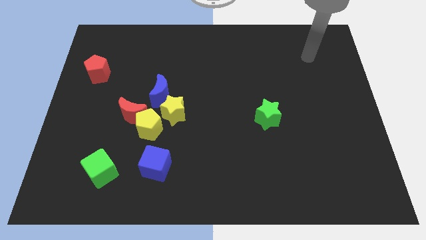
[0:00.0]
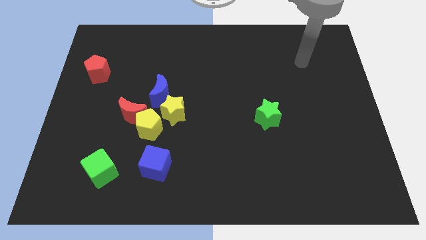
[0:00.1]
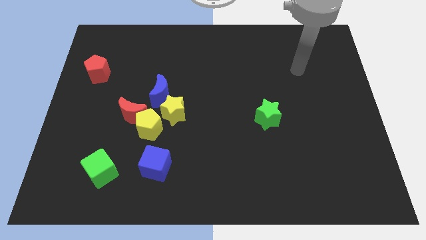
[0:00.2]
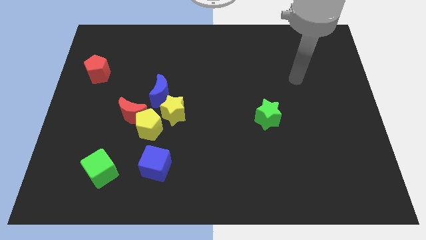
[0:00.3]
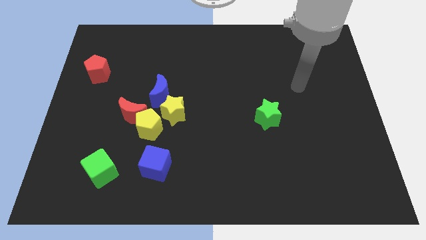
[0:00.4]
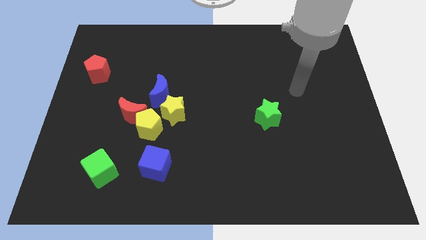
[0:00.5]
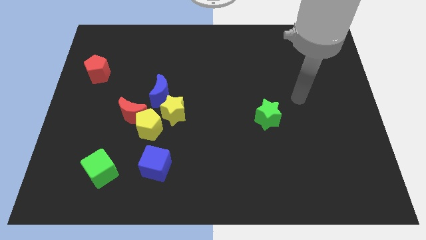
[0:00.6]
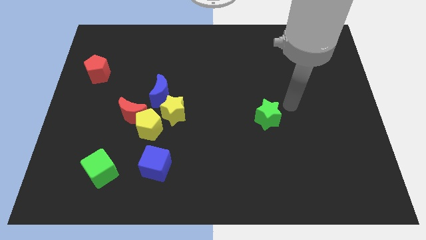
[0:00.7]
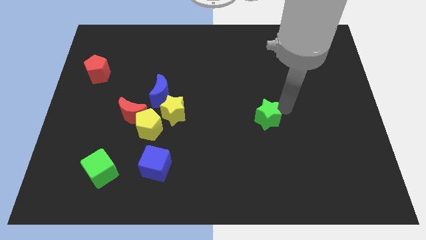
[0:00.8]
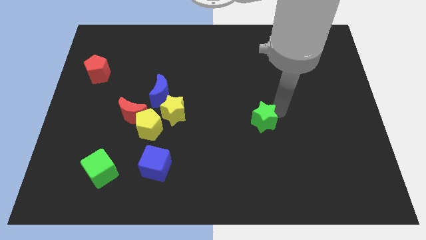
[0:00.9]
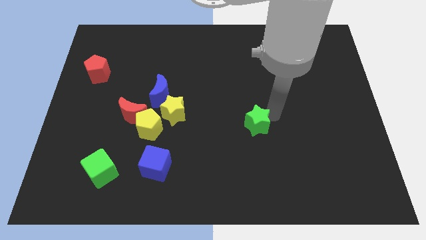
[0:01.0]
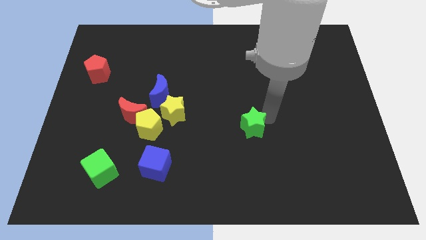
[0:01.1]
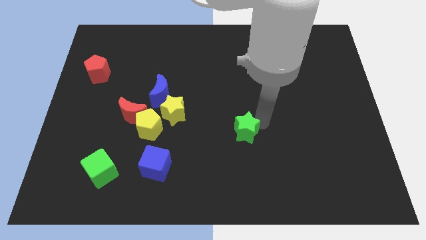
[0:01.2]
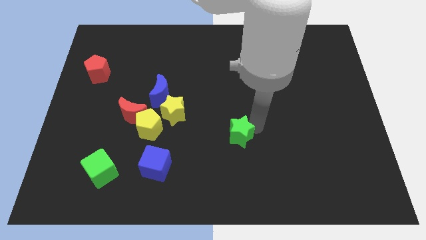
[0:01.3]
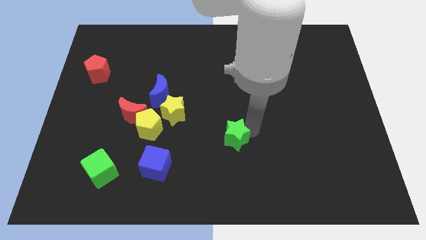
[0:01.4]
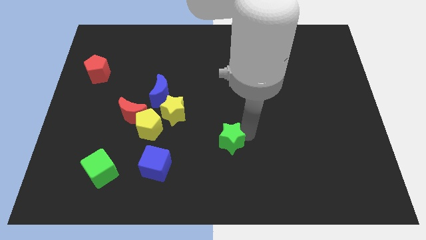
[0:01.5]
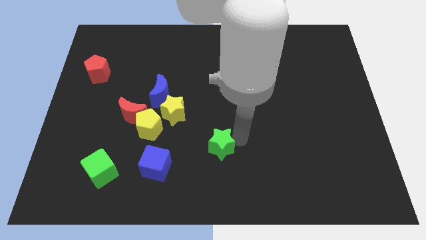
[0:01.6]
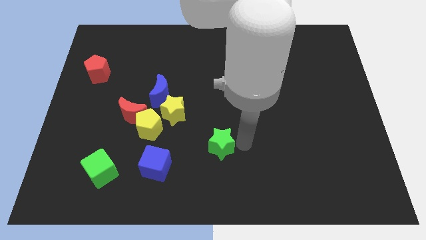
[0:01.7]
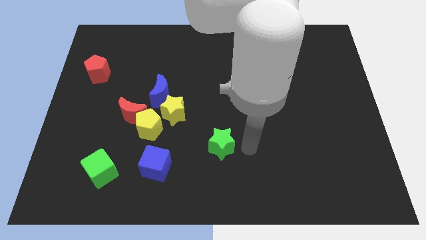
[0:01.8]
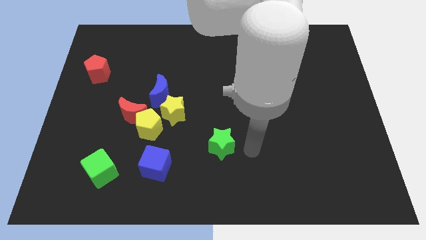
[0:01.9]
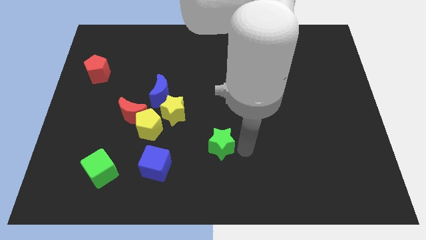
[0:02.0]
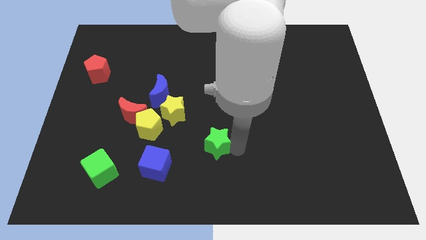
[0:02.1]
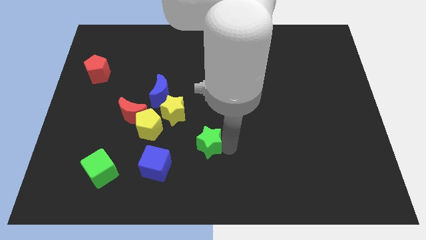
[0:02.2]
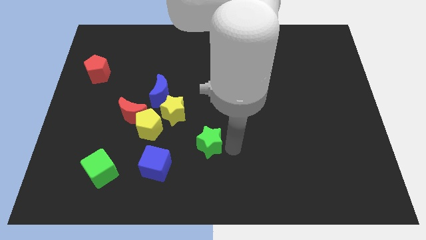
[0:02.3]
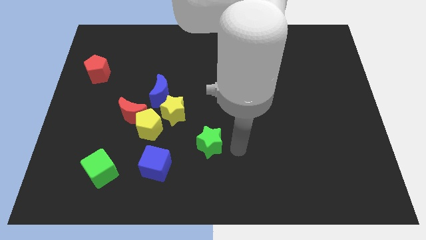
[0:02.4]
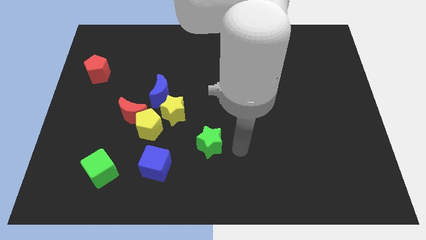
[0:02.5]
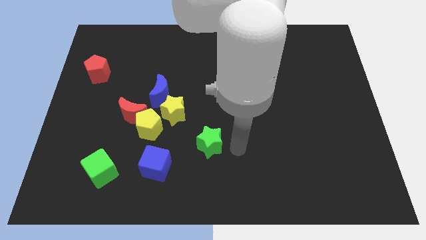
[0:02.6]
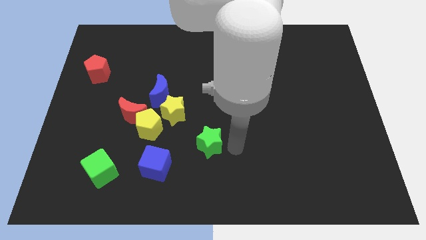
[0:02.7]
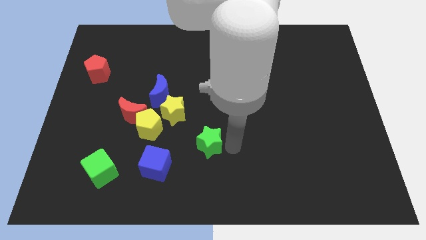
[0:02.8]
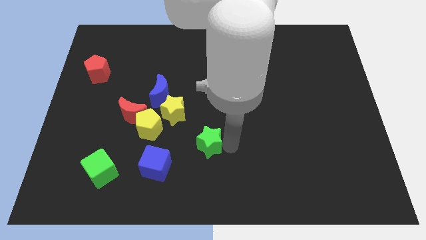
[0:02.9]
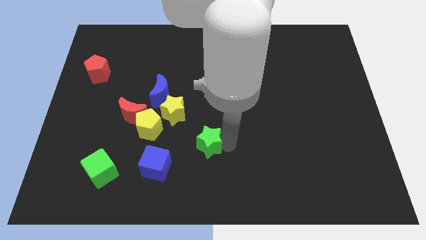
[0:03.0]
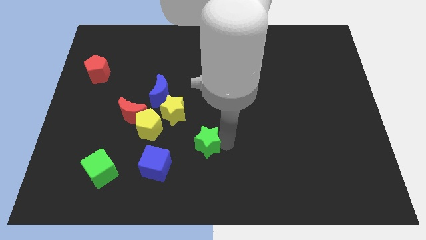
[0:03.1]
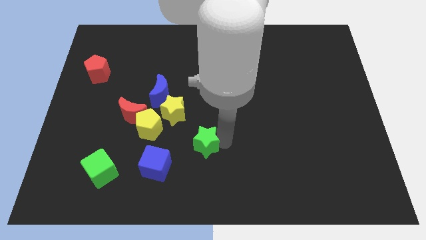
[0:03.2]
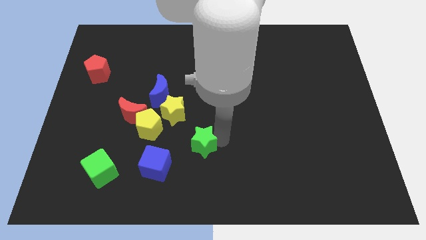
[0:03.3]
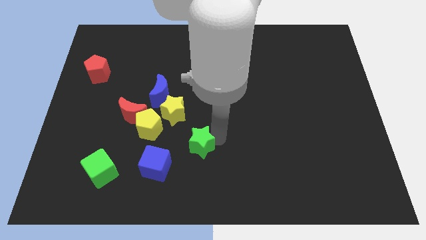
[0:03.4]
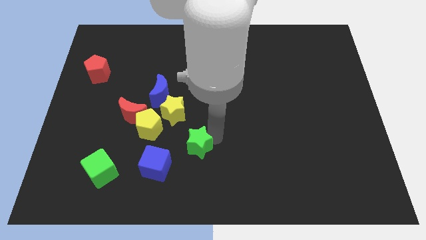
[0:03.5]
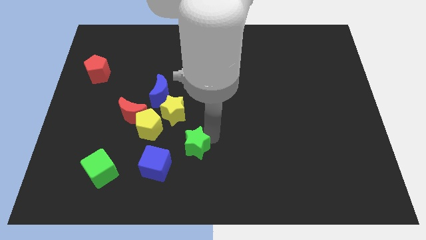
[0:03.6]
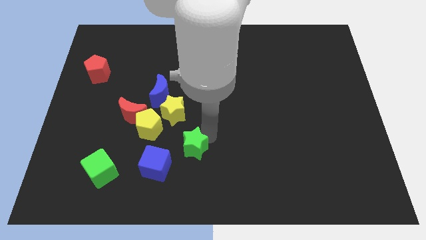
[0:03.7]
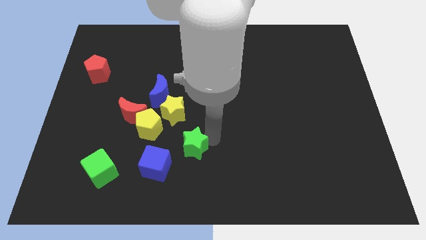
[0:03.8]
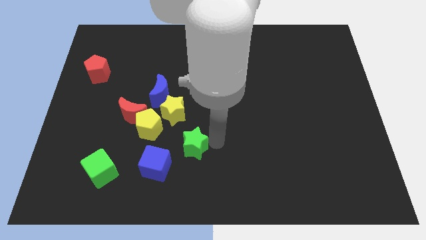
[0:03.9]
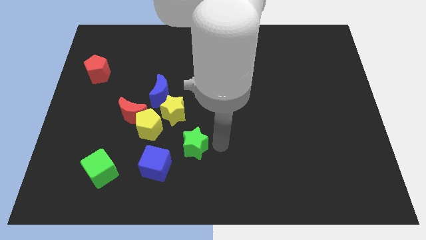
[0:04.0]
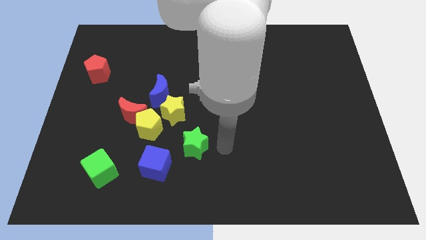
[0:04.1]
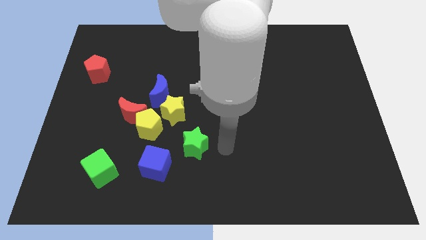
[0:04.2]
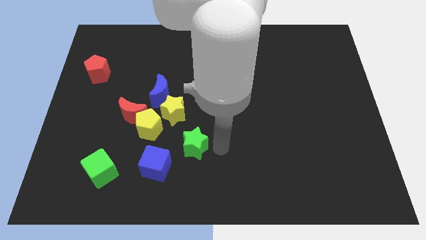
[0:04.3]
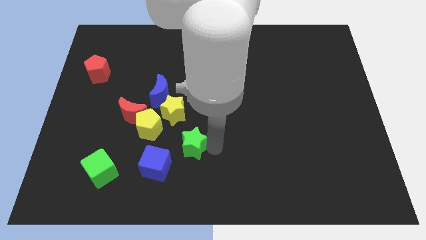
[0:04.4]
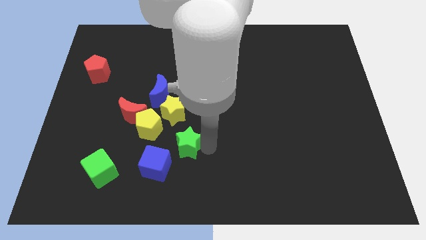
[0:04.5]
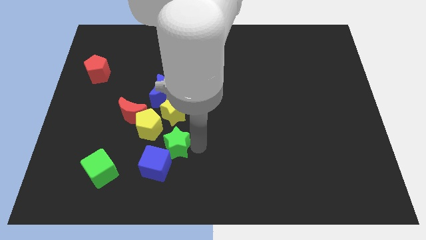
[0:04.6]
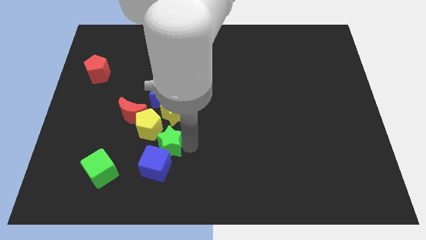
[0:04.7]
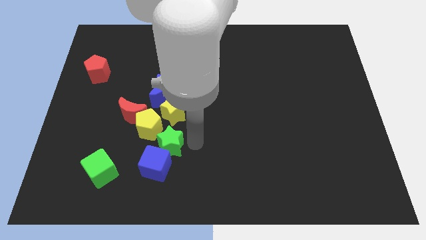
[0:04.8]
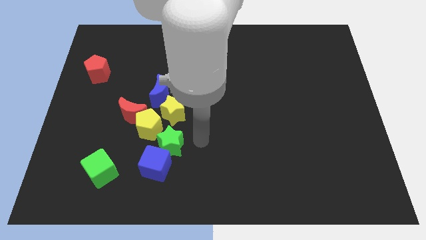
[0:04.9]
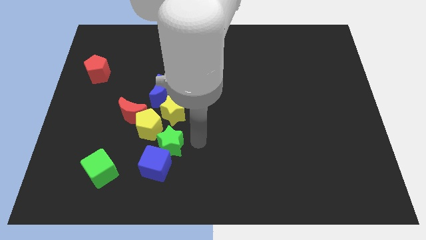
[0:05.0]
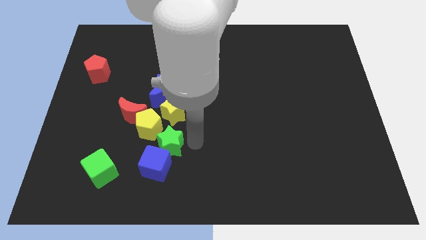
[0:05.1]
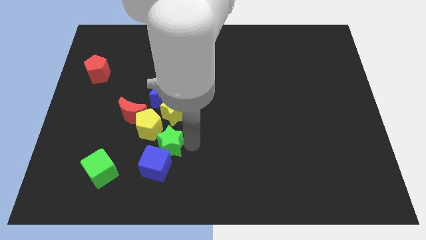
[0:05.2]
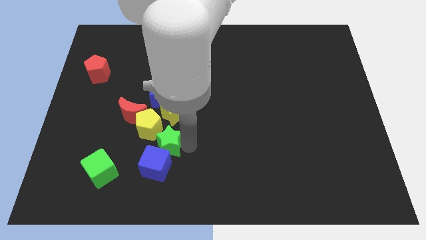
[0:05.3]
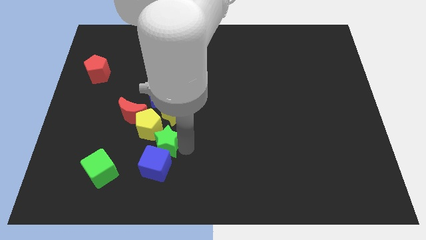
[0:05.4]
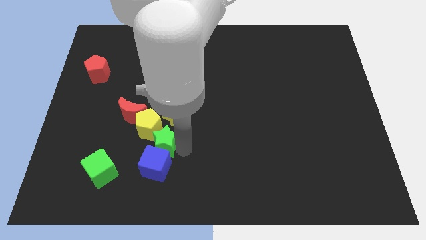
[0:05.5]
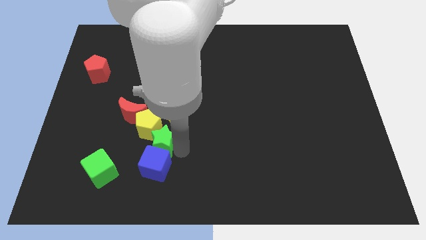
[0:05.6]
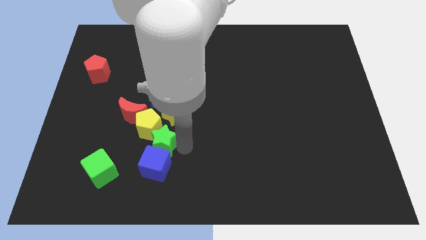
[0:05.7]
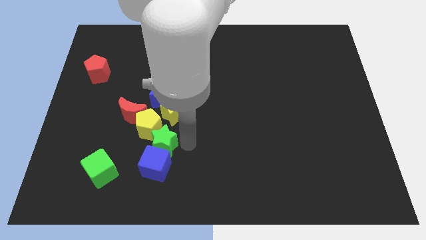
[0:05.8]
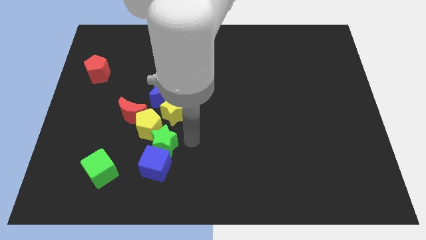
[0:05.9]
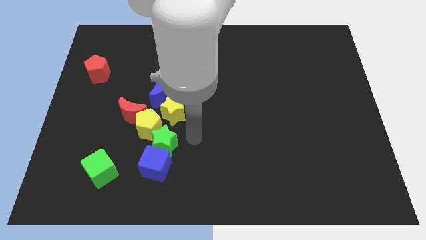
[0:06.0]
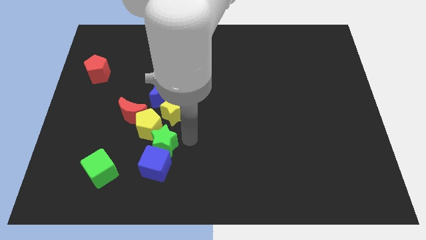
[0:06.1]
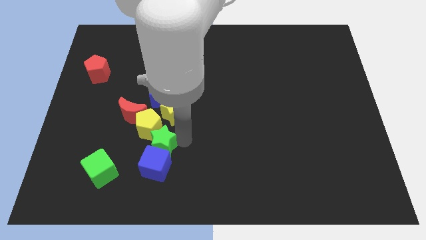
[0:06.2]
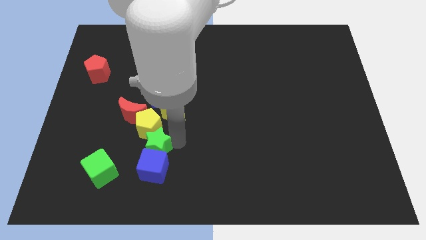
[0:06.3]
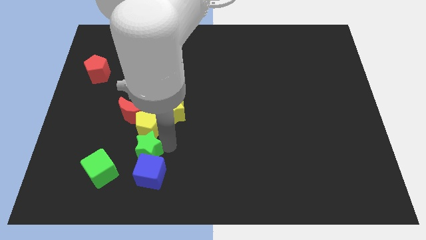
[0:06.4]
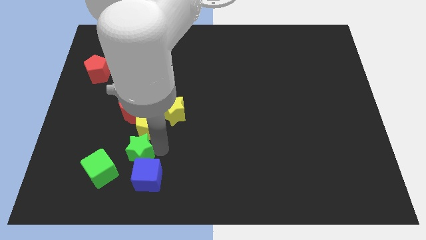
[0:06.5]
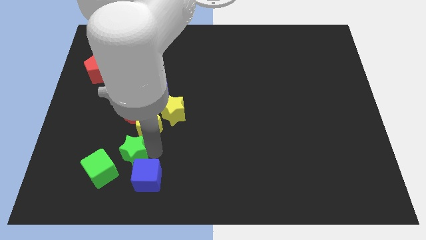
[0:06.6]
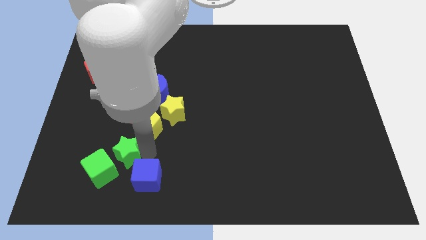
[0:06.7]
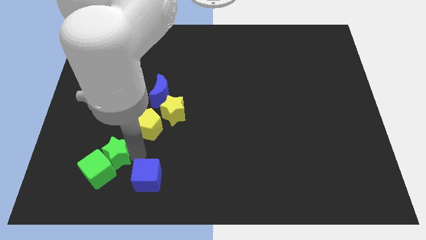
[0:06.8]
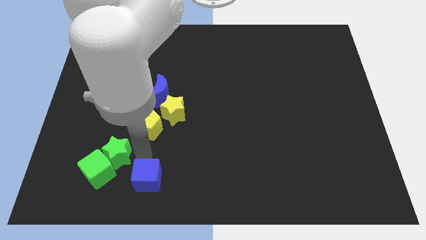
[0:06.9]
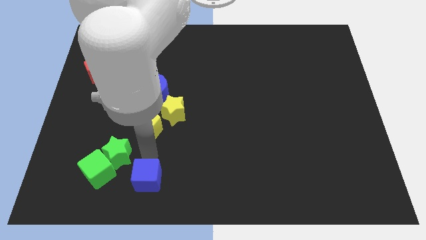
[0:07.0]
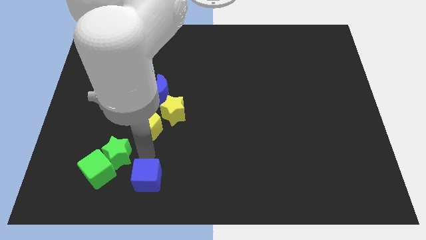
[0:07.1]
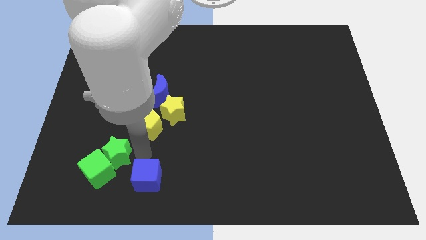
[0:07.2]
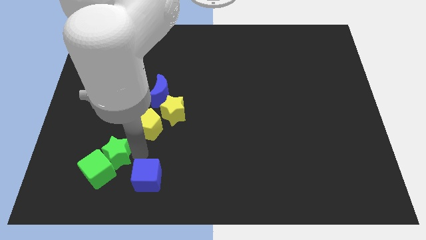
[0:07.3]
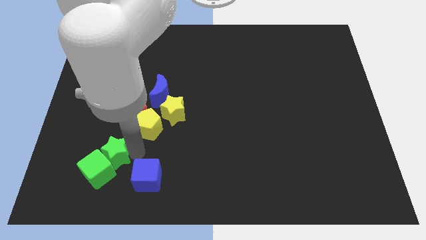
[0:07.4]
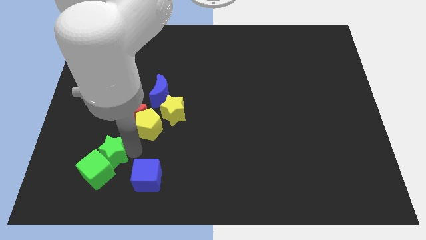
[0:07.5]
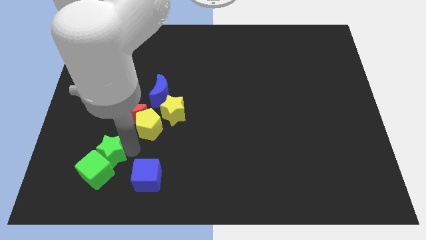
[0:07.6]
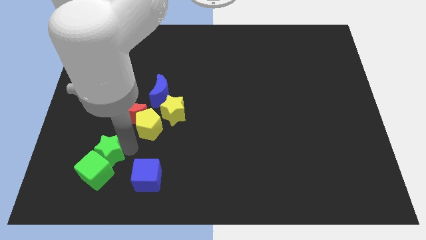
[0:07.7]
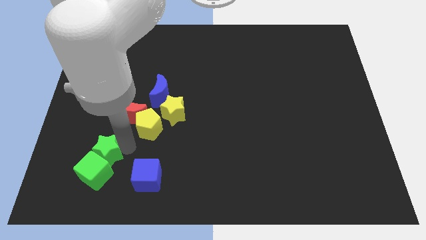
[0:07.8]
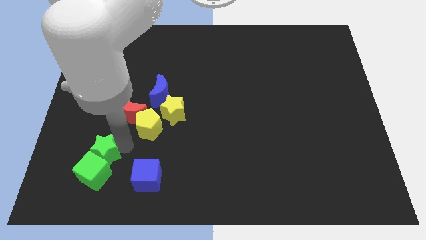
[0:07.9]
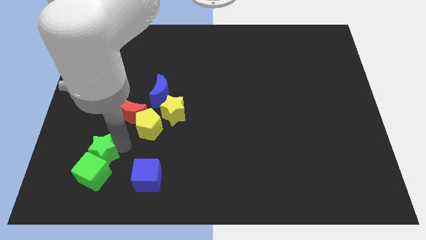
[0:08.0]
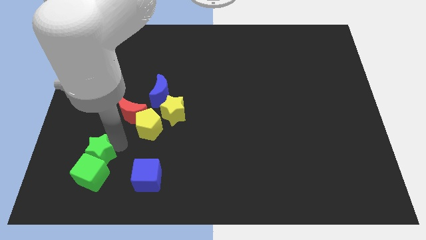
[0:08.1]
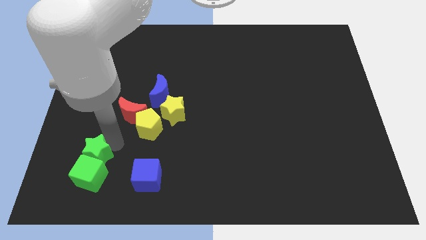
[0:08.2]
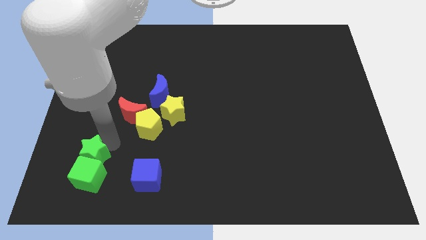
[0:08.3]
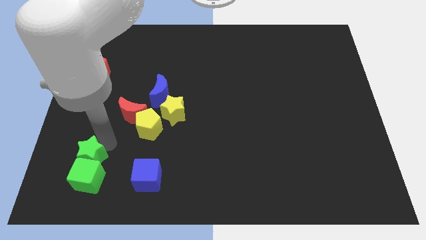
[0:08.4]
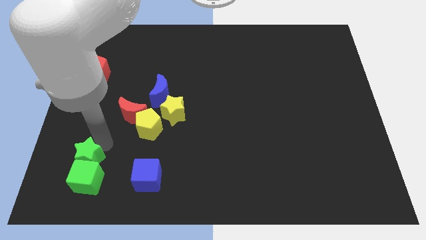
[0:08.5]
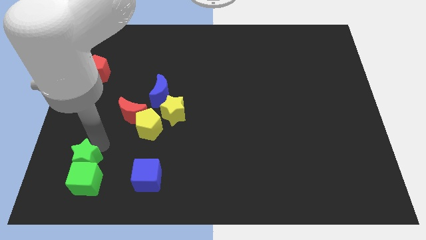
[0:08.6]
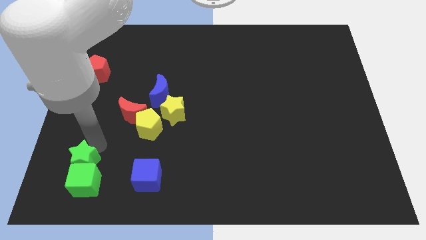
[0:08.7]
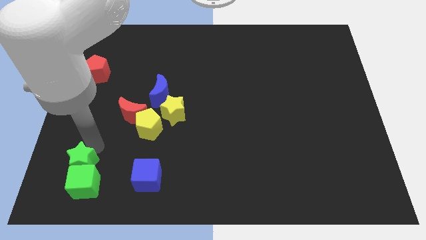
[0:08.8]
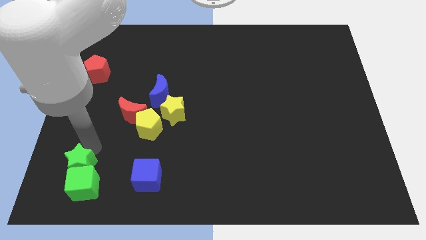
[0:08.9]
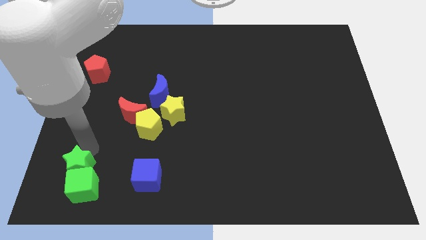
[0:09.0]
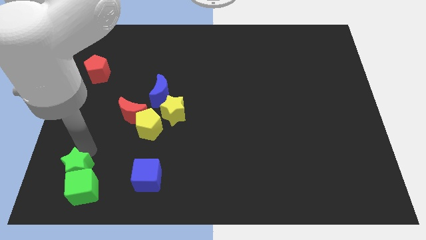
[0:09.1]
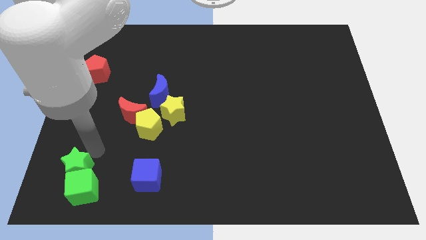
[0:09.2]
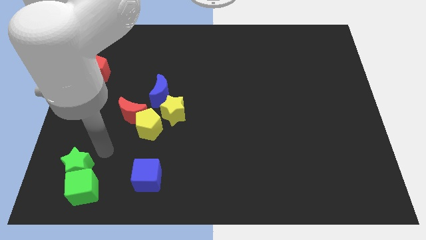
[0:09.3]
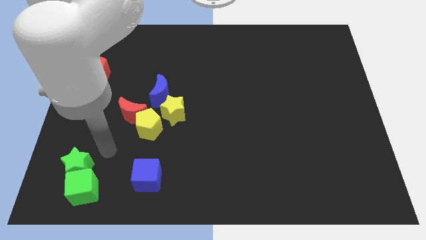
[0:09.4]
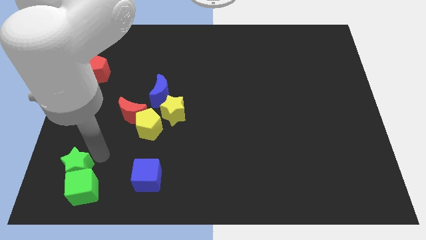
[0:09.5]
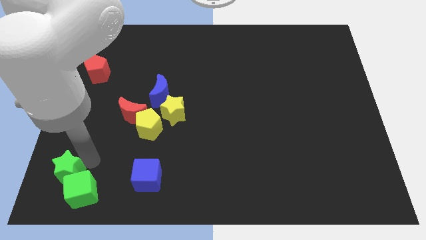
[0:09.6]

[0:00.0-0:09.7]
put the green star to the bottom left of the board
